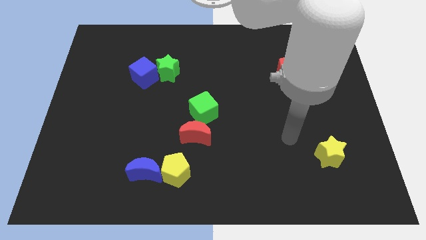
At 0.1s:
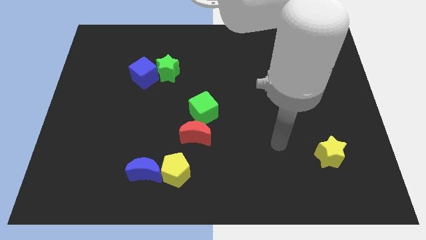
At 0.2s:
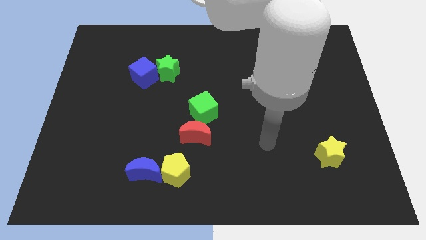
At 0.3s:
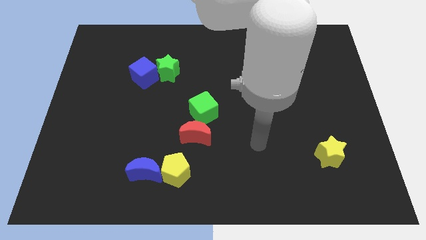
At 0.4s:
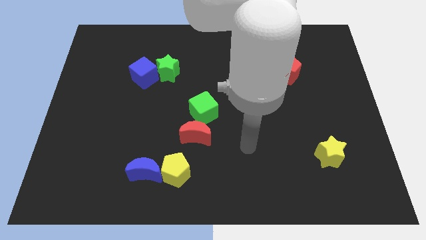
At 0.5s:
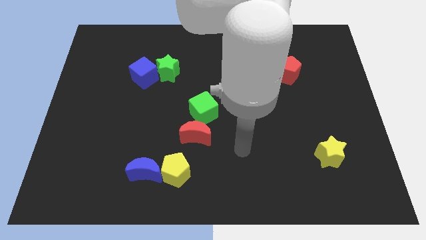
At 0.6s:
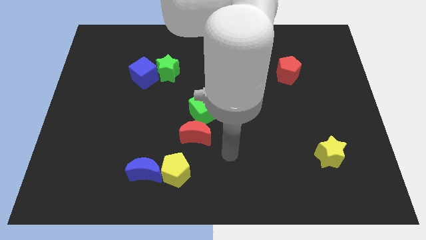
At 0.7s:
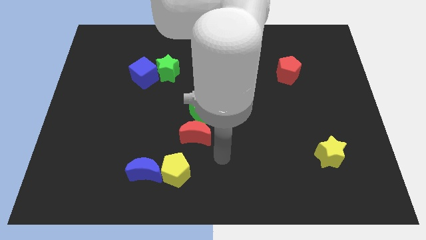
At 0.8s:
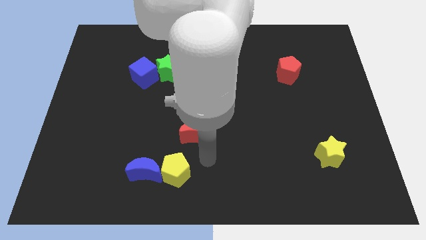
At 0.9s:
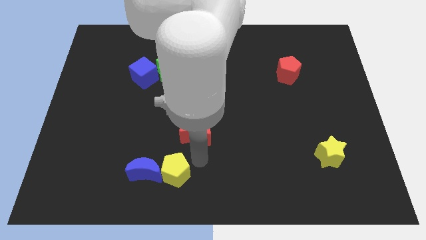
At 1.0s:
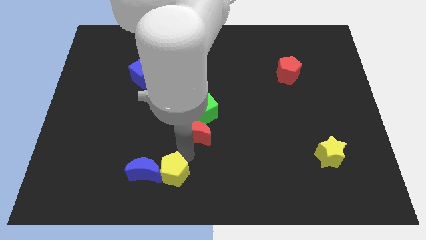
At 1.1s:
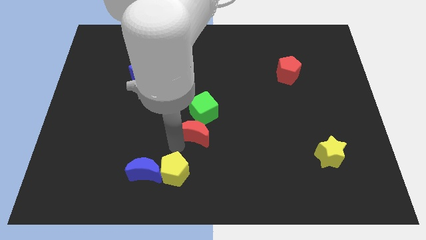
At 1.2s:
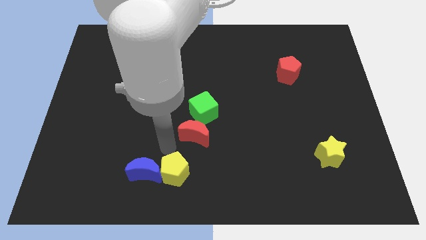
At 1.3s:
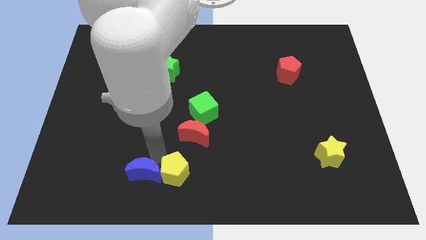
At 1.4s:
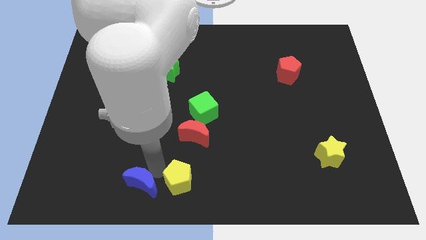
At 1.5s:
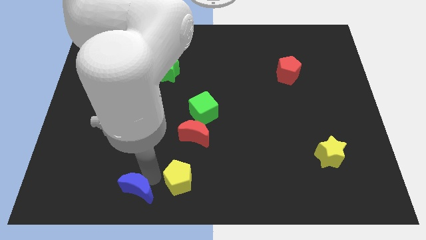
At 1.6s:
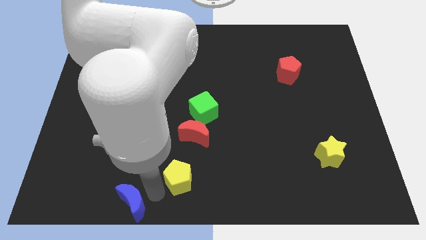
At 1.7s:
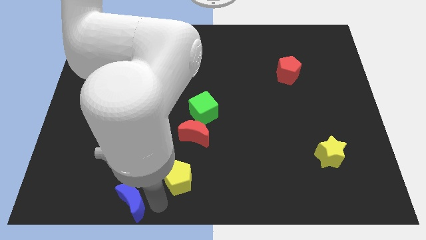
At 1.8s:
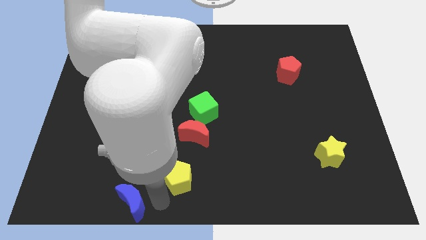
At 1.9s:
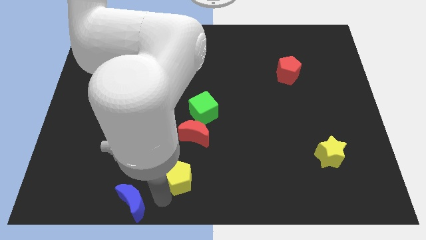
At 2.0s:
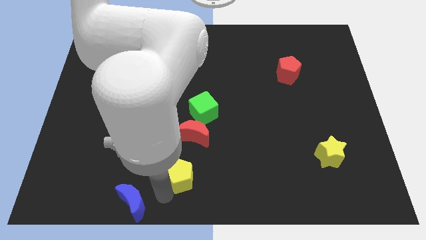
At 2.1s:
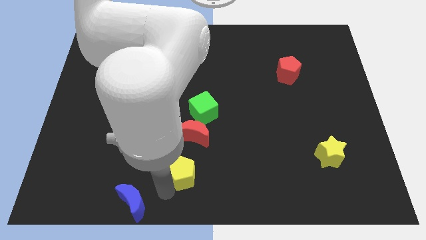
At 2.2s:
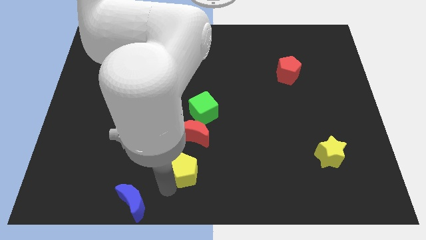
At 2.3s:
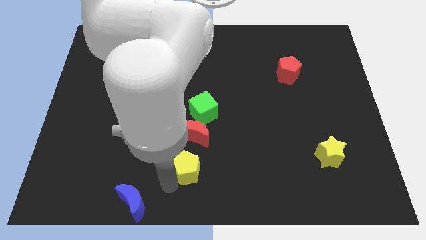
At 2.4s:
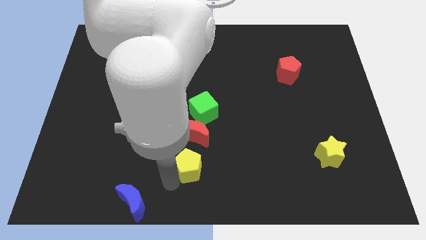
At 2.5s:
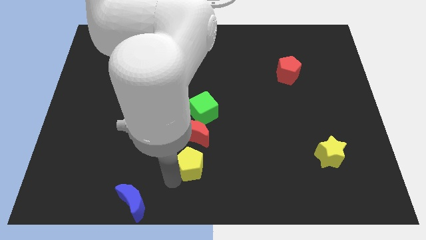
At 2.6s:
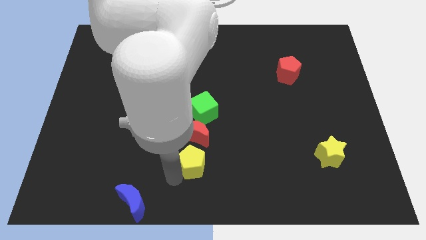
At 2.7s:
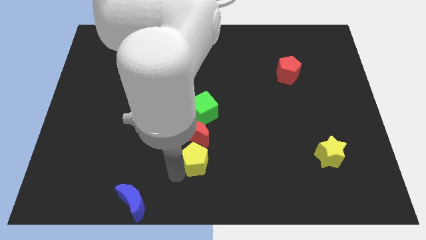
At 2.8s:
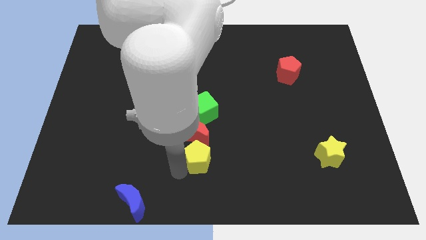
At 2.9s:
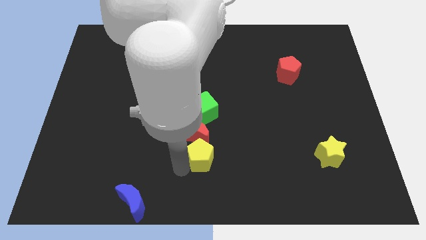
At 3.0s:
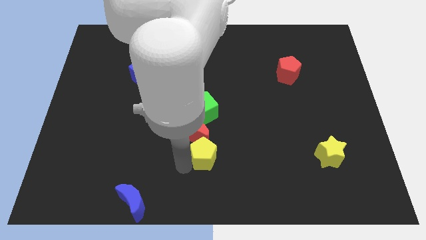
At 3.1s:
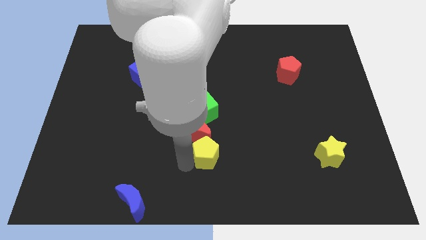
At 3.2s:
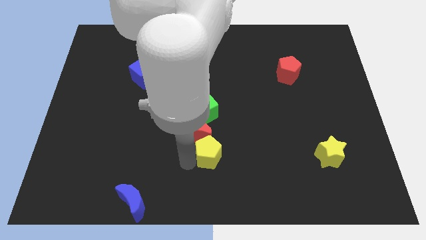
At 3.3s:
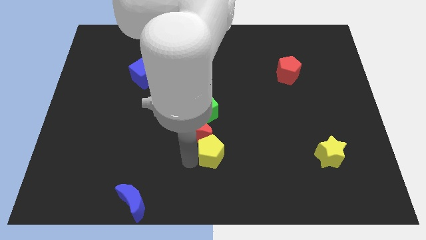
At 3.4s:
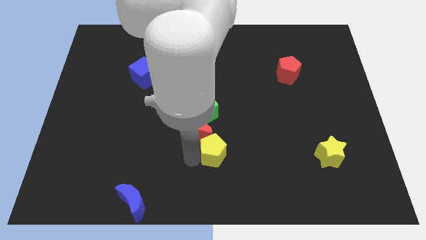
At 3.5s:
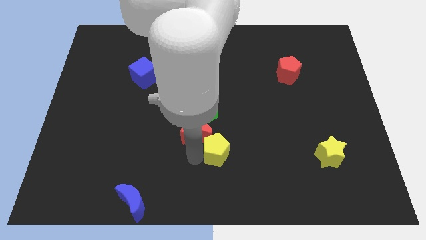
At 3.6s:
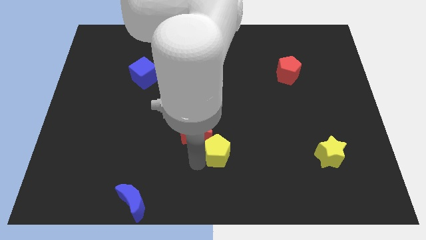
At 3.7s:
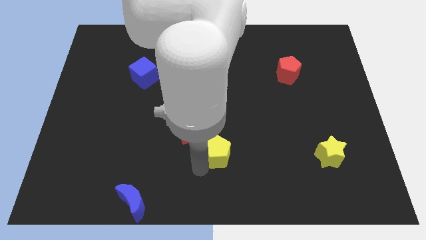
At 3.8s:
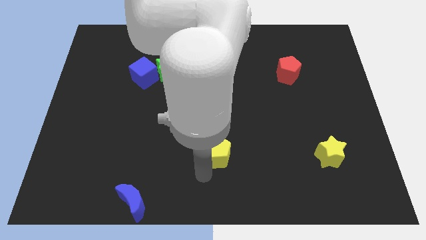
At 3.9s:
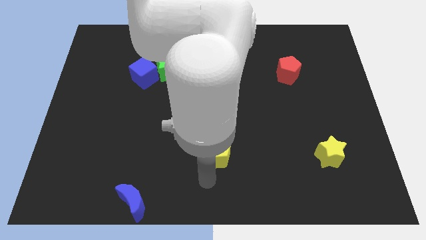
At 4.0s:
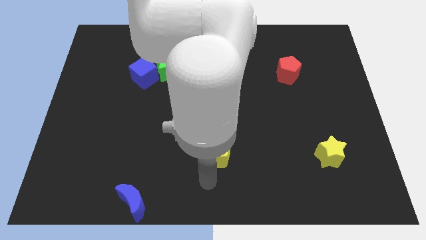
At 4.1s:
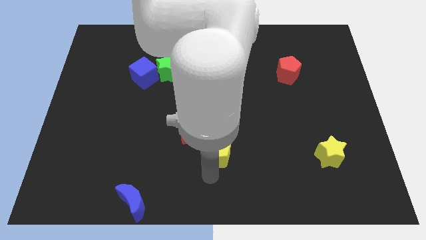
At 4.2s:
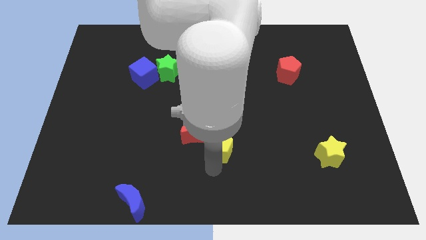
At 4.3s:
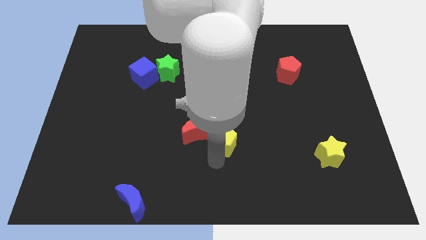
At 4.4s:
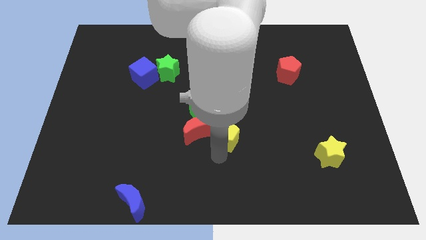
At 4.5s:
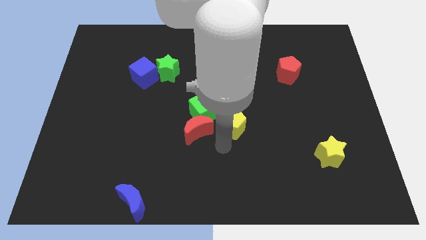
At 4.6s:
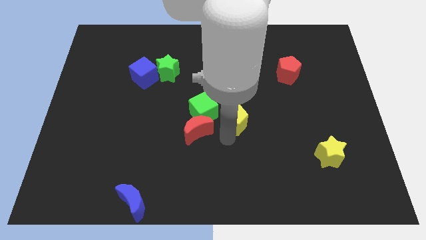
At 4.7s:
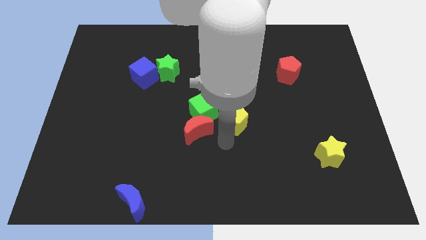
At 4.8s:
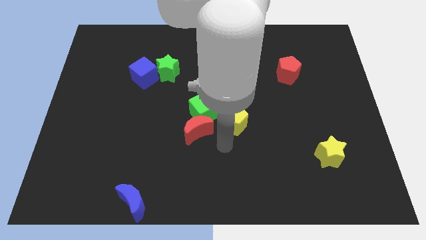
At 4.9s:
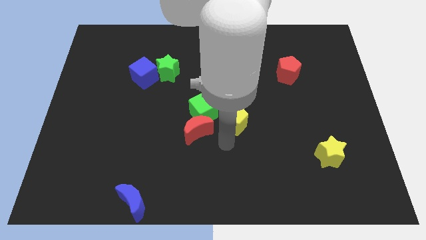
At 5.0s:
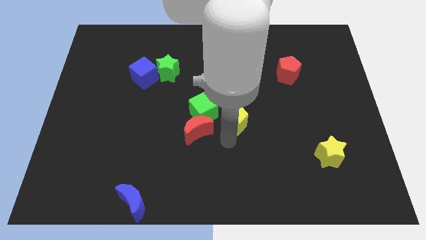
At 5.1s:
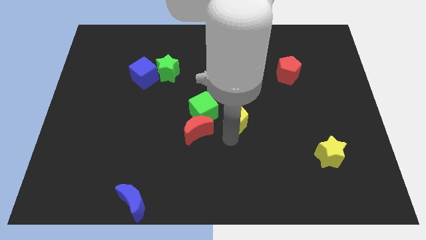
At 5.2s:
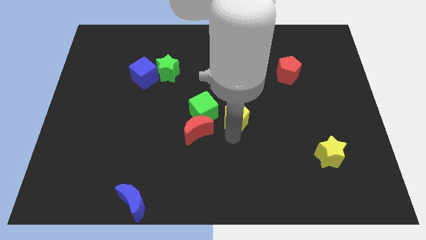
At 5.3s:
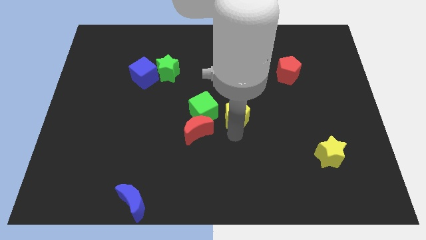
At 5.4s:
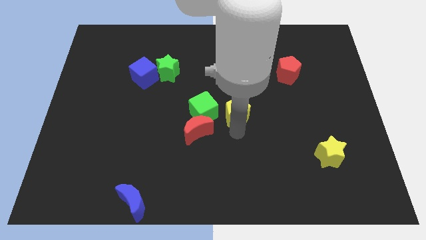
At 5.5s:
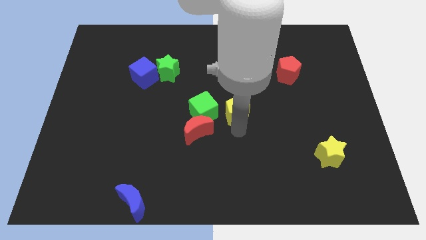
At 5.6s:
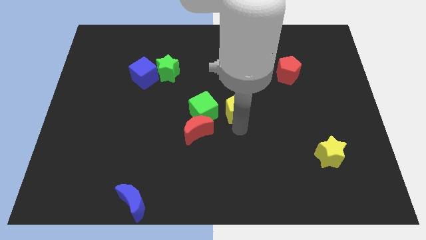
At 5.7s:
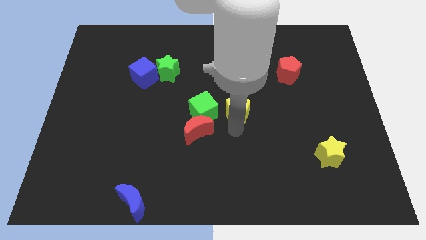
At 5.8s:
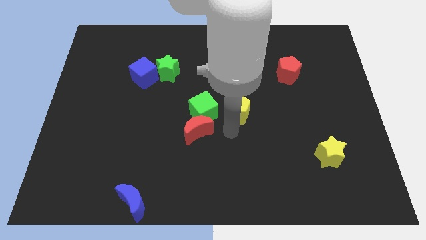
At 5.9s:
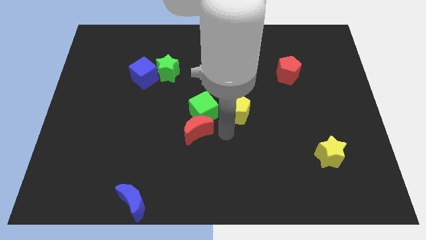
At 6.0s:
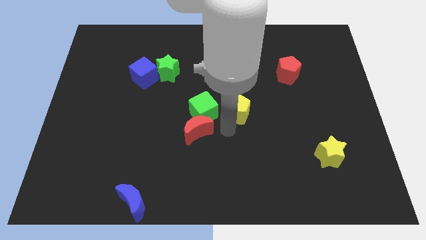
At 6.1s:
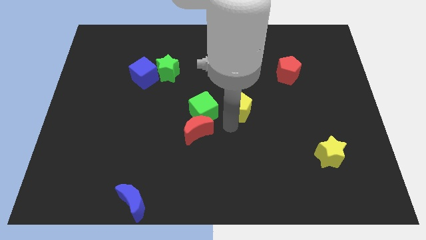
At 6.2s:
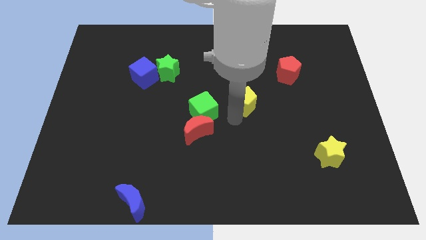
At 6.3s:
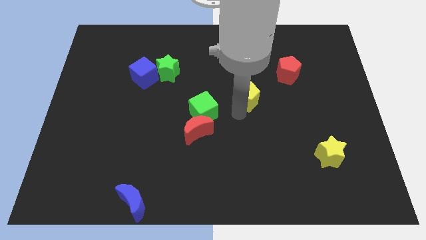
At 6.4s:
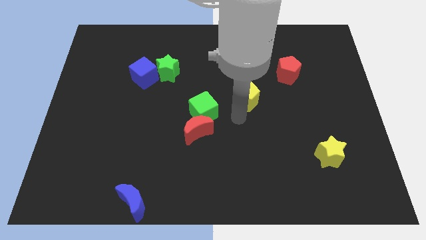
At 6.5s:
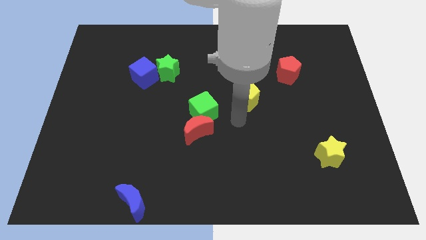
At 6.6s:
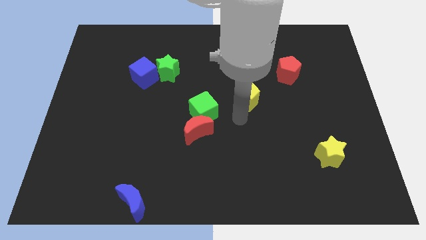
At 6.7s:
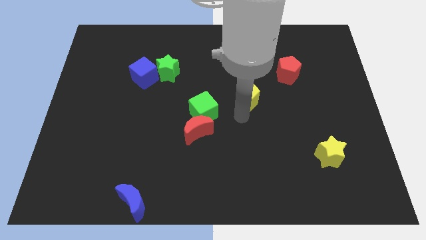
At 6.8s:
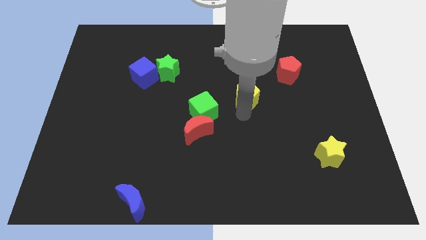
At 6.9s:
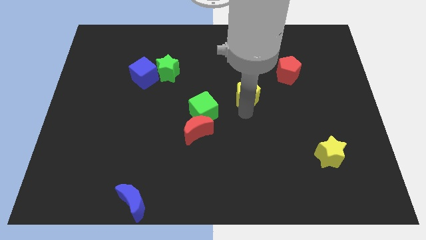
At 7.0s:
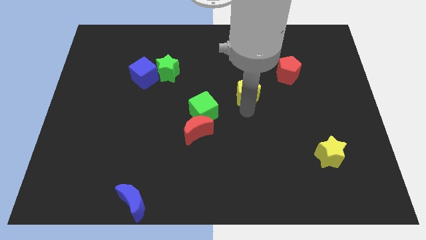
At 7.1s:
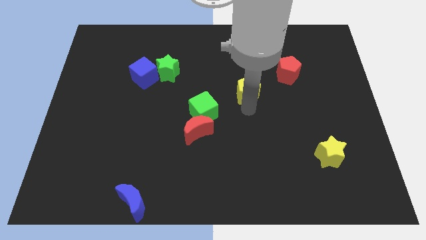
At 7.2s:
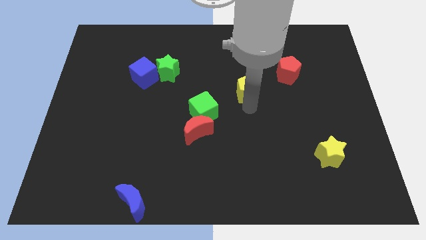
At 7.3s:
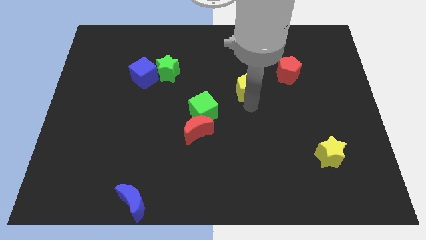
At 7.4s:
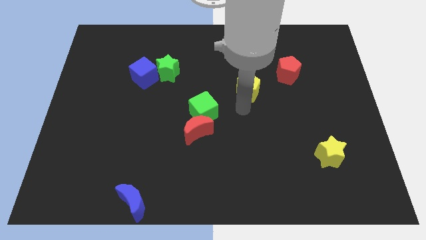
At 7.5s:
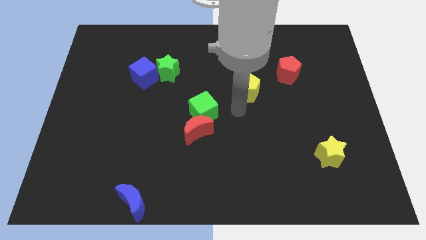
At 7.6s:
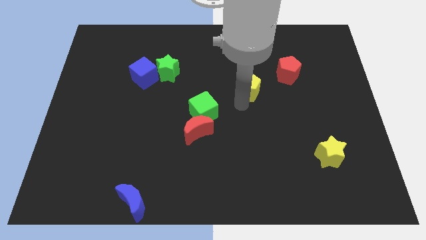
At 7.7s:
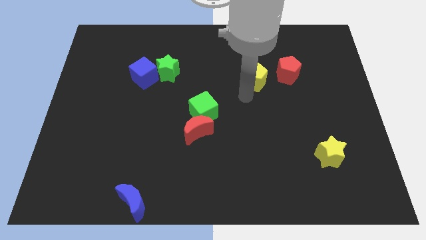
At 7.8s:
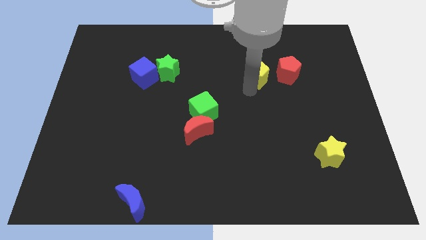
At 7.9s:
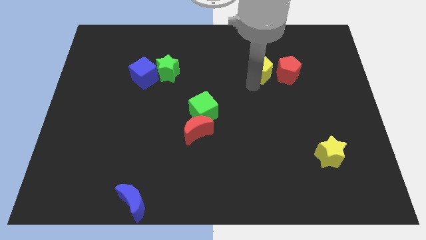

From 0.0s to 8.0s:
move the yellow pentagon diagonally up and to the left of the red pentagon
